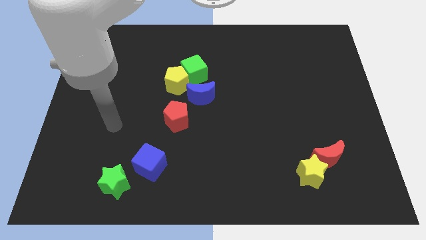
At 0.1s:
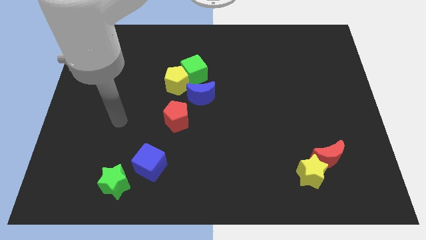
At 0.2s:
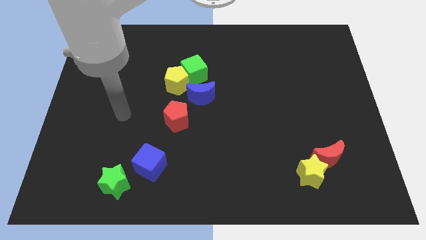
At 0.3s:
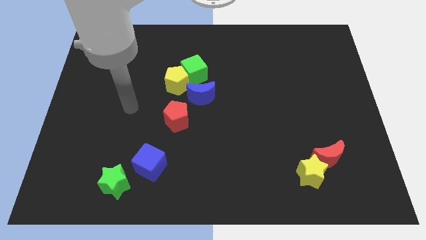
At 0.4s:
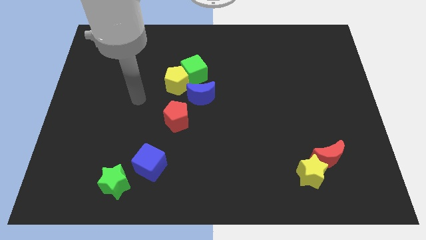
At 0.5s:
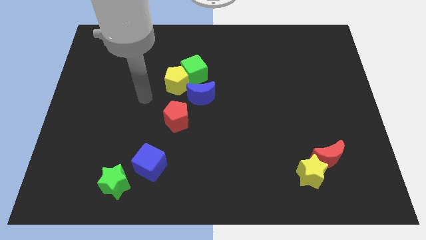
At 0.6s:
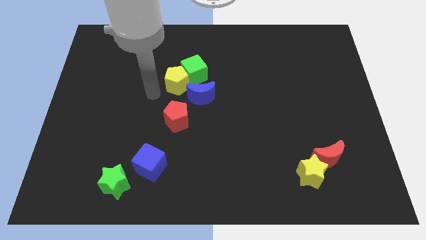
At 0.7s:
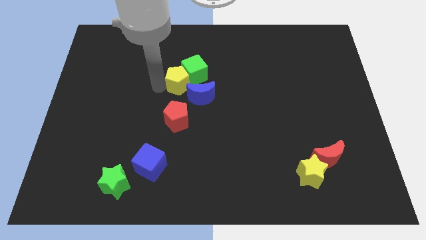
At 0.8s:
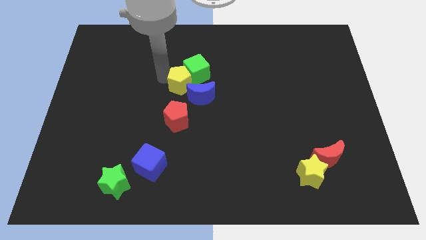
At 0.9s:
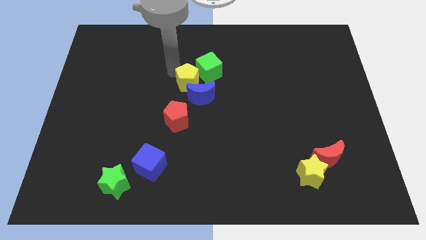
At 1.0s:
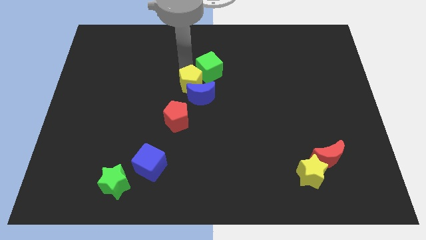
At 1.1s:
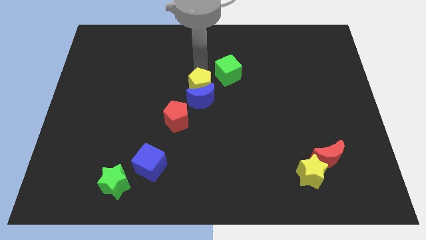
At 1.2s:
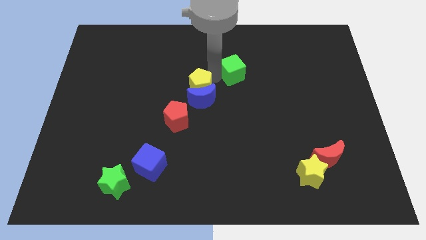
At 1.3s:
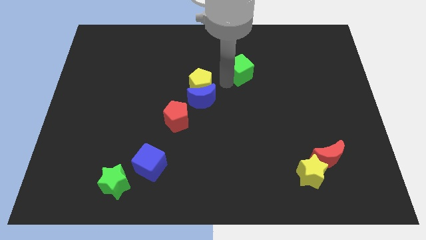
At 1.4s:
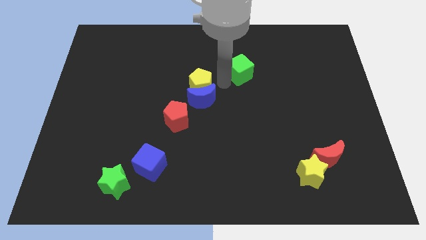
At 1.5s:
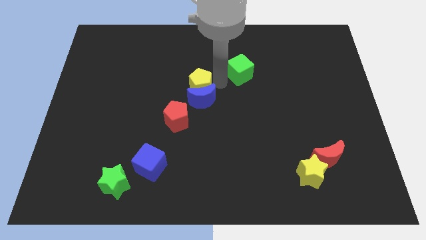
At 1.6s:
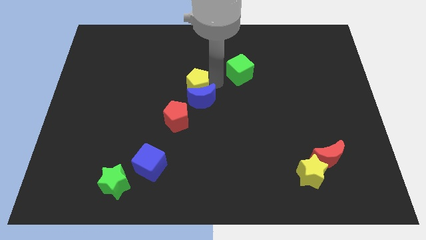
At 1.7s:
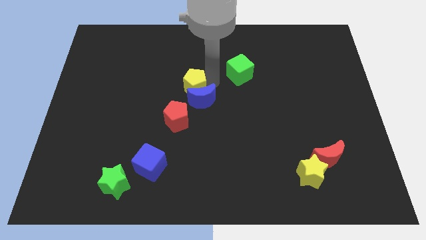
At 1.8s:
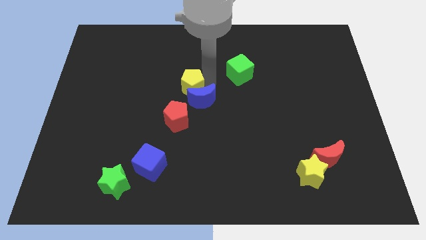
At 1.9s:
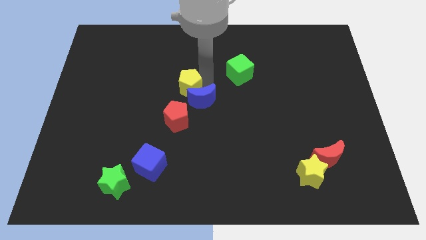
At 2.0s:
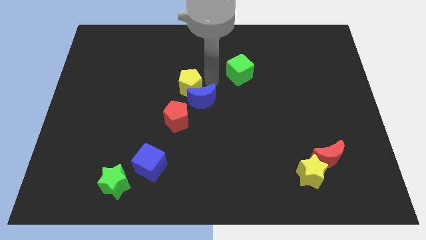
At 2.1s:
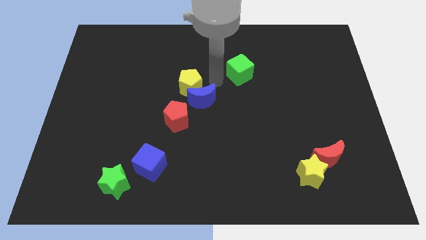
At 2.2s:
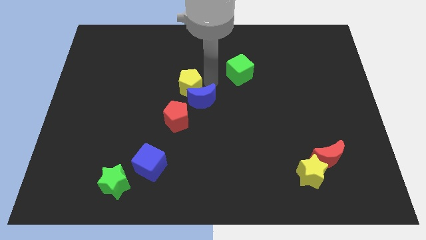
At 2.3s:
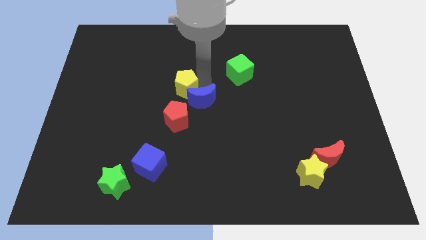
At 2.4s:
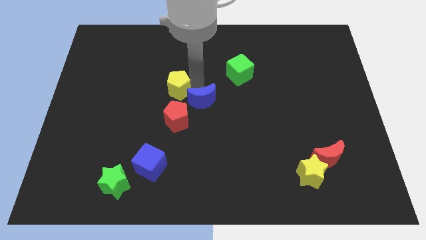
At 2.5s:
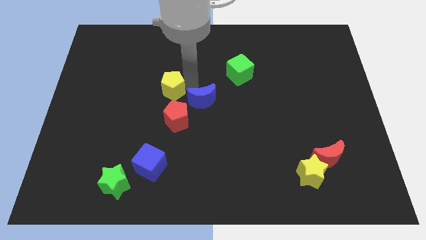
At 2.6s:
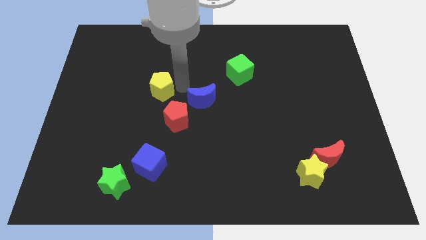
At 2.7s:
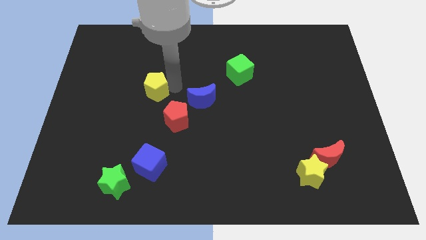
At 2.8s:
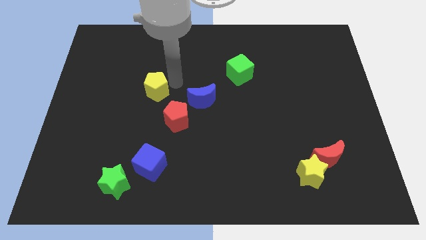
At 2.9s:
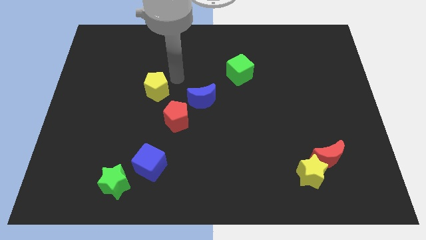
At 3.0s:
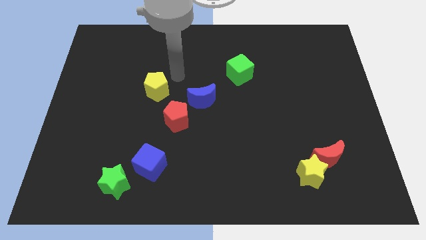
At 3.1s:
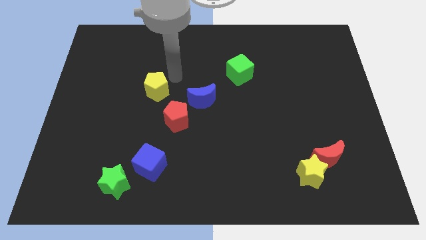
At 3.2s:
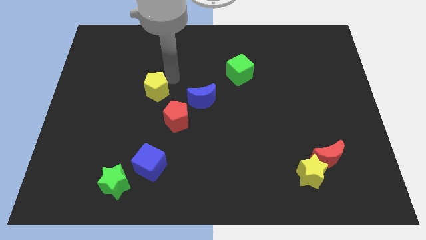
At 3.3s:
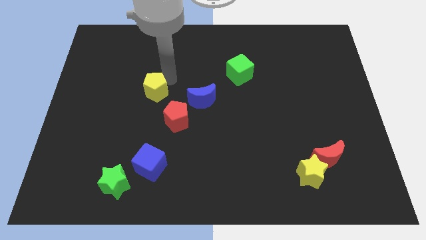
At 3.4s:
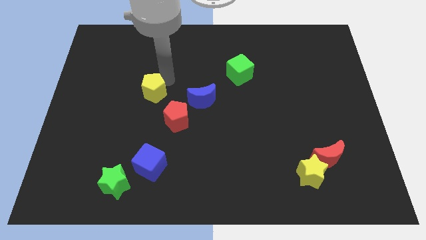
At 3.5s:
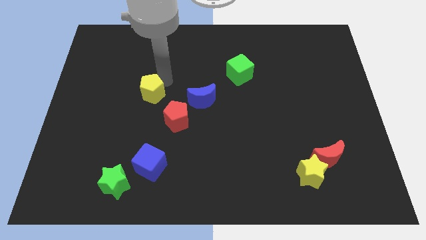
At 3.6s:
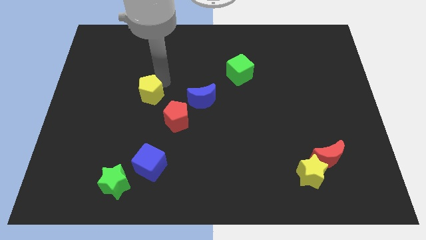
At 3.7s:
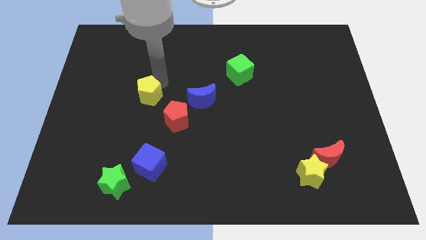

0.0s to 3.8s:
slightly push the yellow pentagon diagonally down and left

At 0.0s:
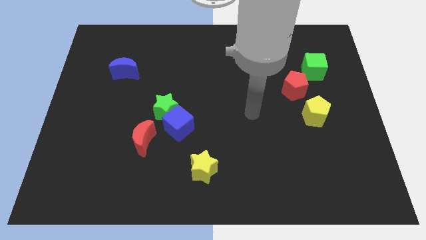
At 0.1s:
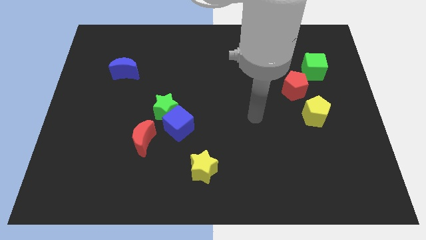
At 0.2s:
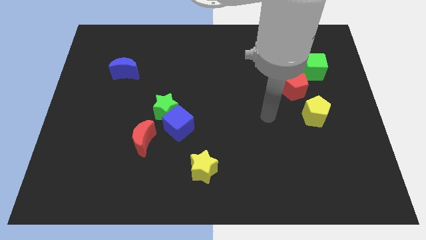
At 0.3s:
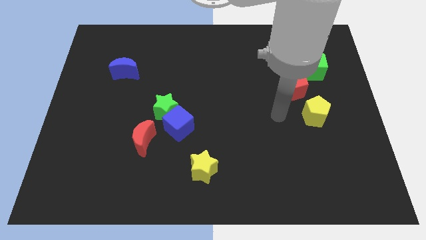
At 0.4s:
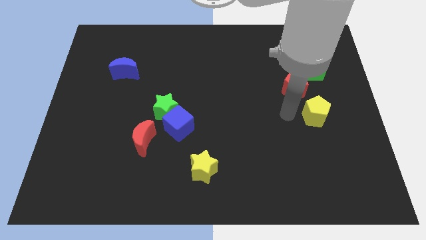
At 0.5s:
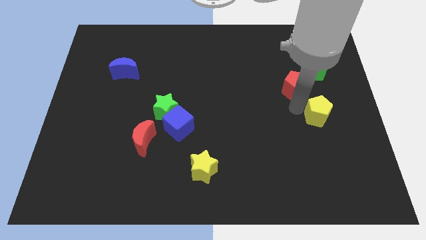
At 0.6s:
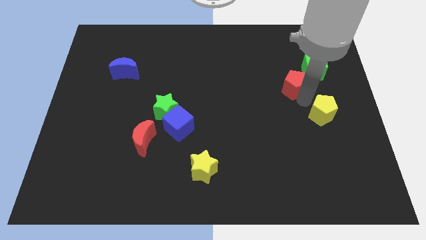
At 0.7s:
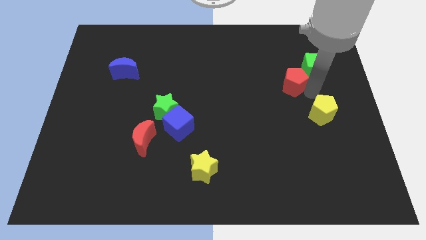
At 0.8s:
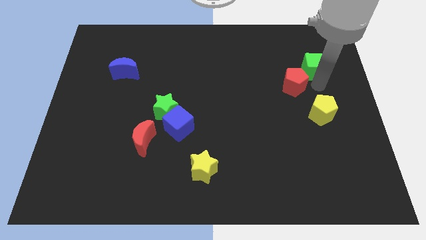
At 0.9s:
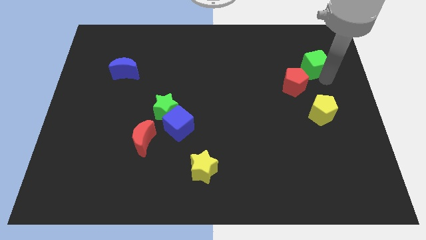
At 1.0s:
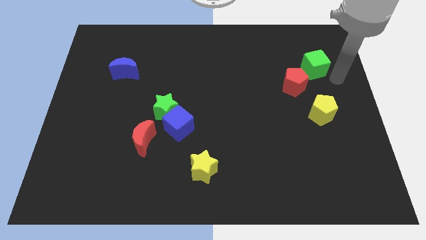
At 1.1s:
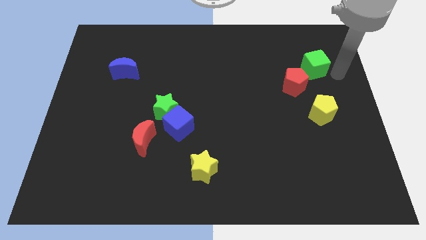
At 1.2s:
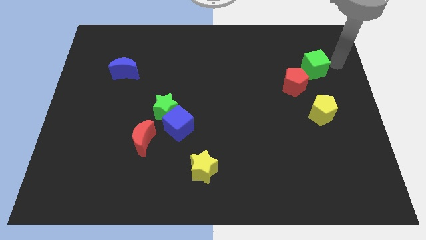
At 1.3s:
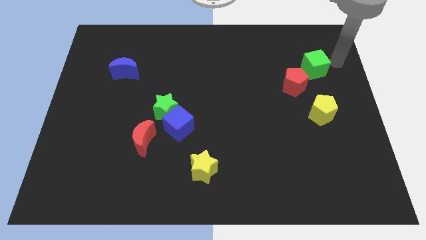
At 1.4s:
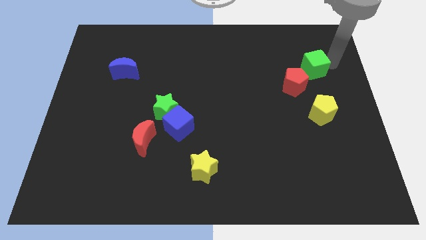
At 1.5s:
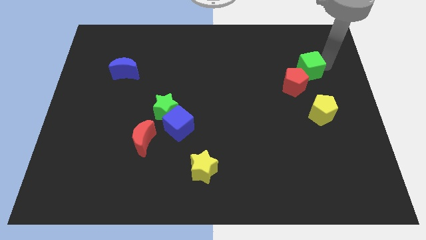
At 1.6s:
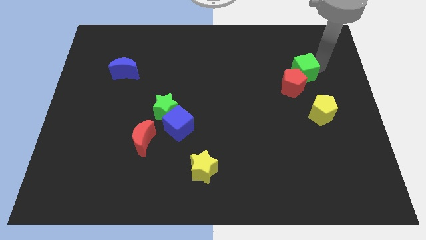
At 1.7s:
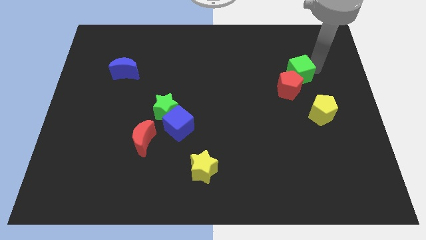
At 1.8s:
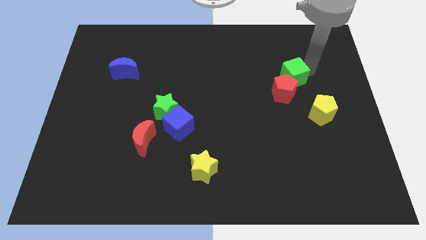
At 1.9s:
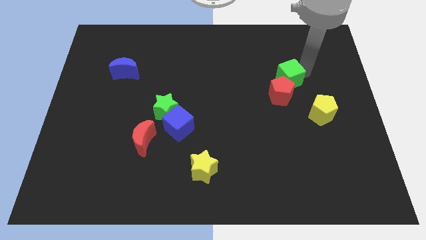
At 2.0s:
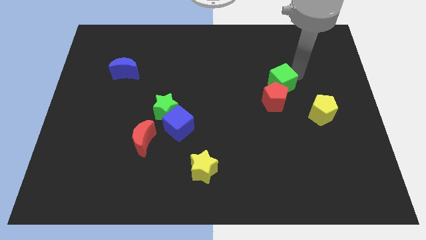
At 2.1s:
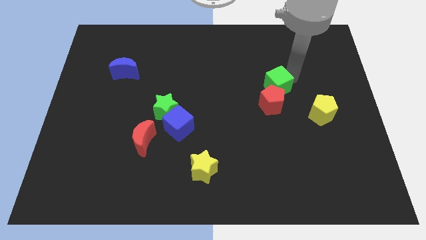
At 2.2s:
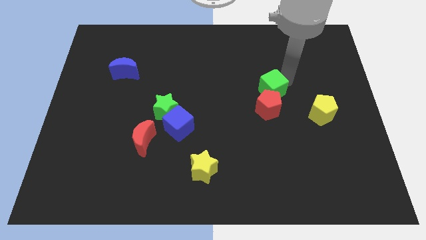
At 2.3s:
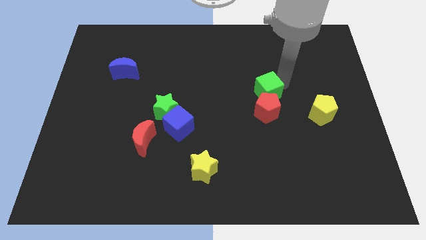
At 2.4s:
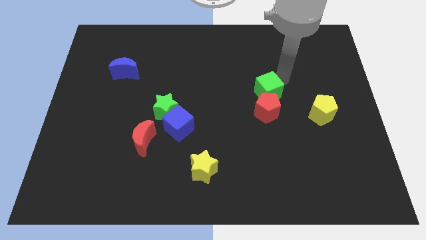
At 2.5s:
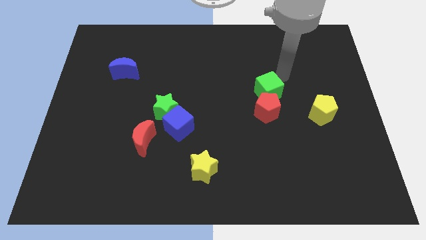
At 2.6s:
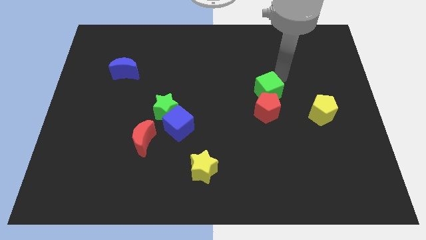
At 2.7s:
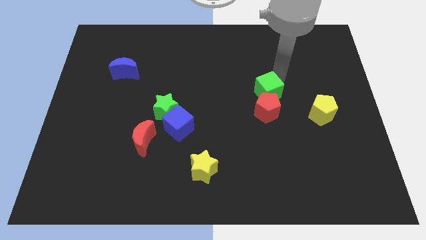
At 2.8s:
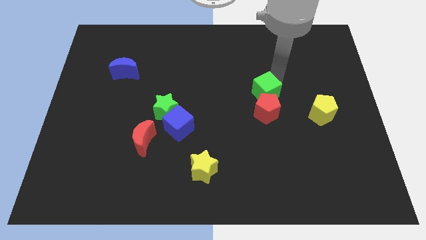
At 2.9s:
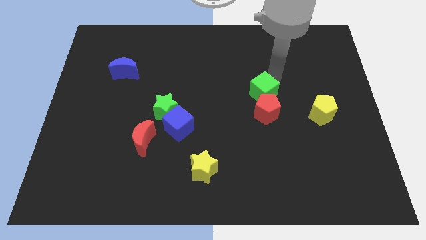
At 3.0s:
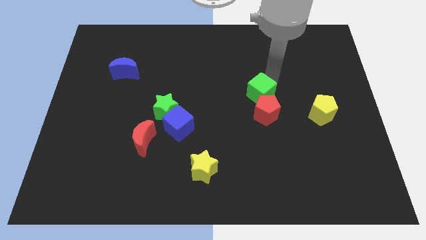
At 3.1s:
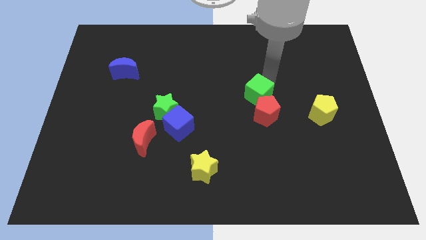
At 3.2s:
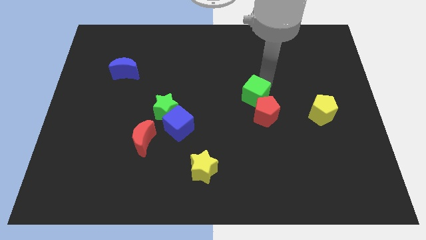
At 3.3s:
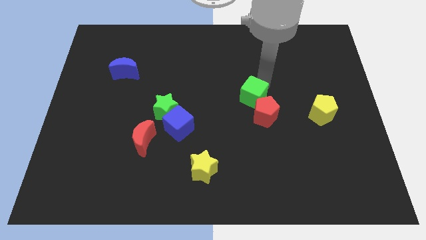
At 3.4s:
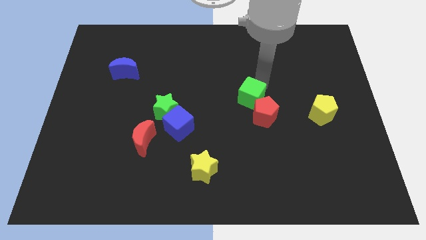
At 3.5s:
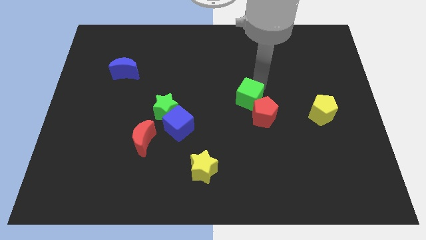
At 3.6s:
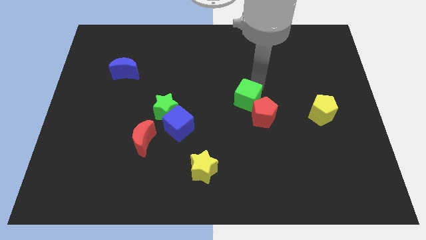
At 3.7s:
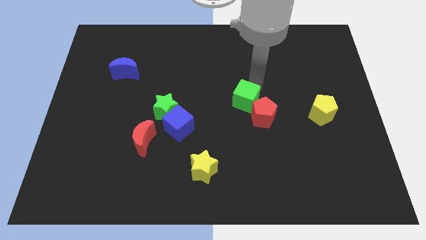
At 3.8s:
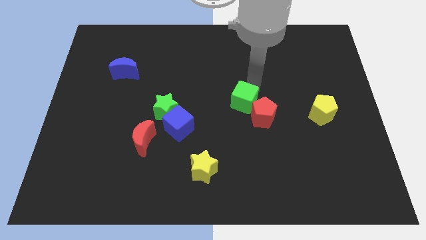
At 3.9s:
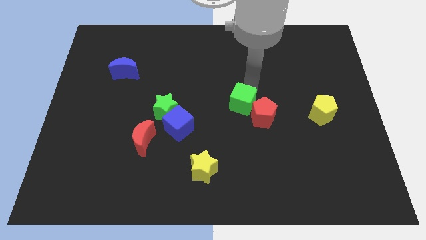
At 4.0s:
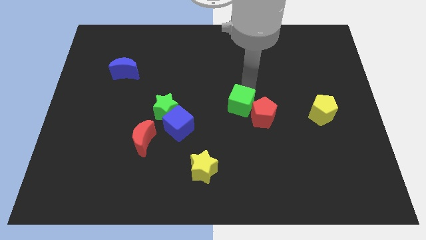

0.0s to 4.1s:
move the green cube down and to the left diagonally

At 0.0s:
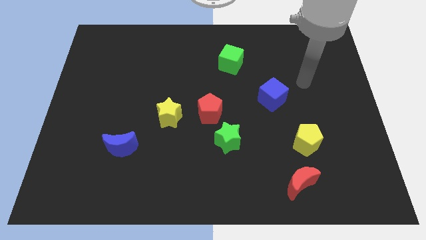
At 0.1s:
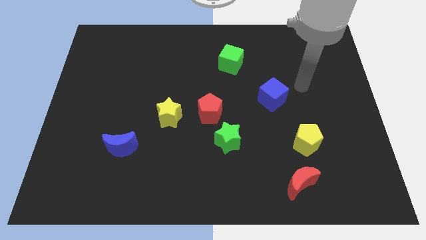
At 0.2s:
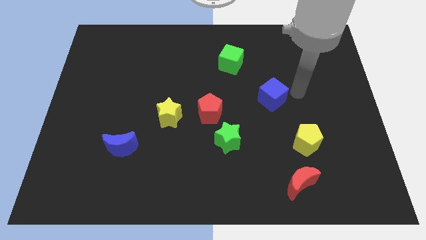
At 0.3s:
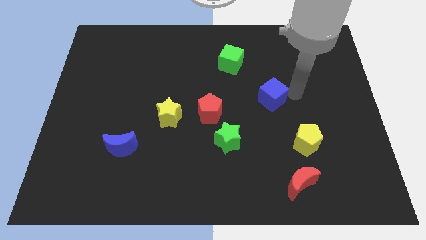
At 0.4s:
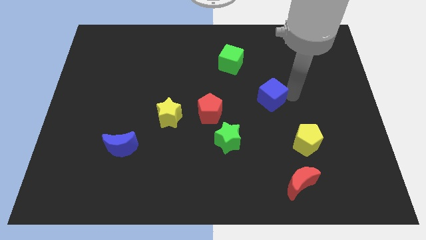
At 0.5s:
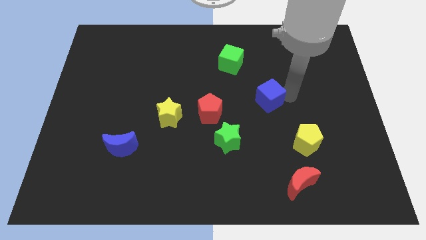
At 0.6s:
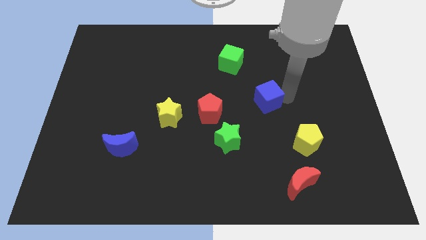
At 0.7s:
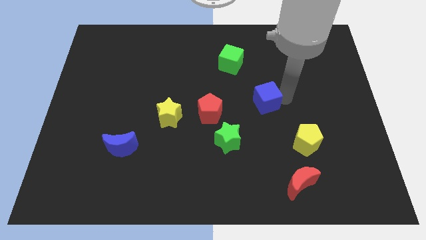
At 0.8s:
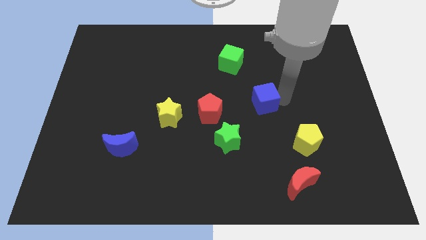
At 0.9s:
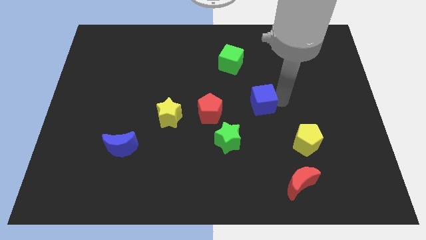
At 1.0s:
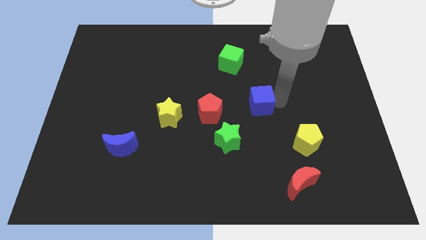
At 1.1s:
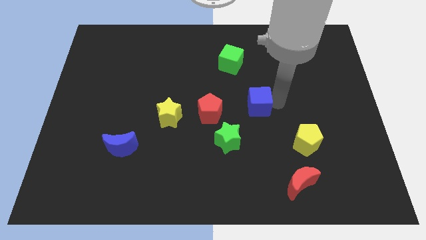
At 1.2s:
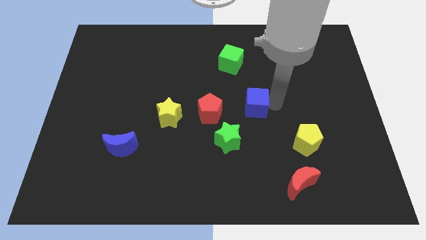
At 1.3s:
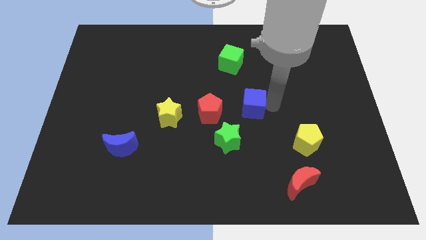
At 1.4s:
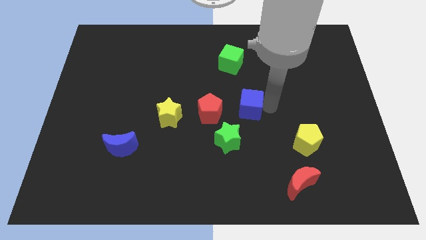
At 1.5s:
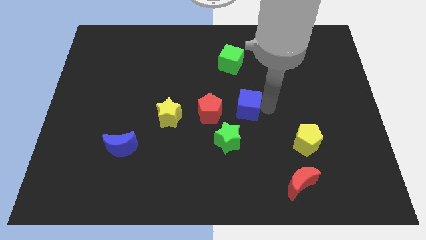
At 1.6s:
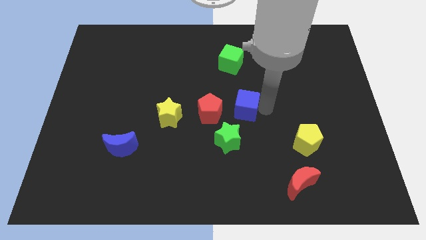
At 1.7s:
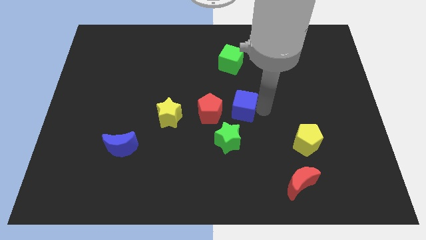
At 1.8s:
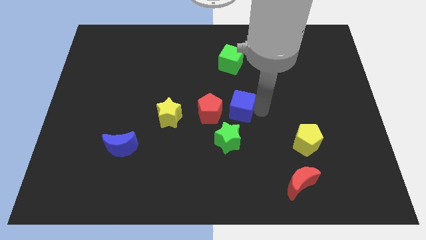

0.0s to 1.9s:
slightly push the blue cube left
